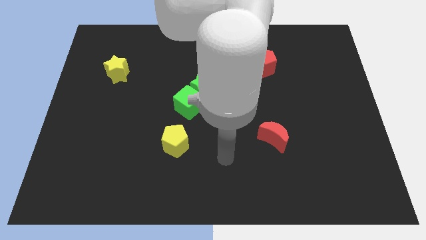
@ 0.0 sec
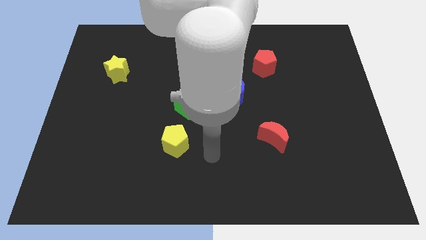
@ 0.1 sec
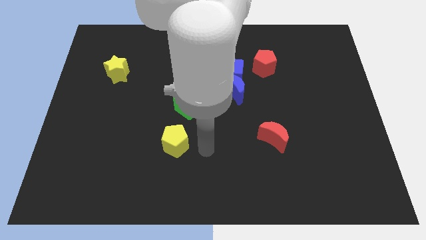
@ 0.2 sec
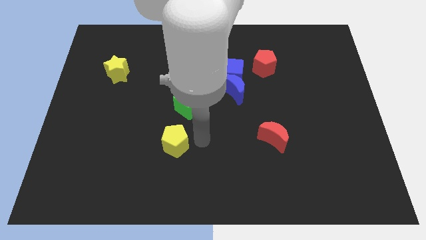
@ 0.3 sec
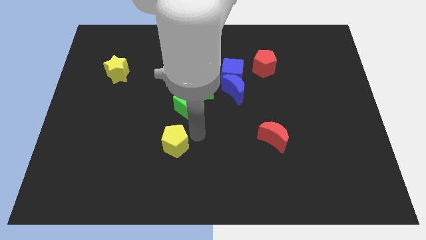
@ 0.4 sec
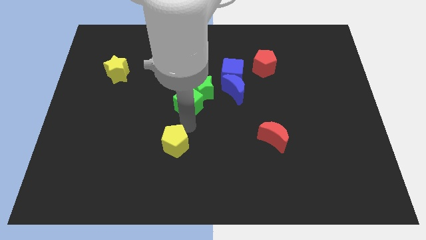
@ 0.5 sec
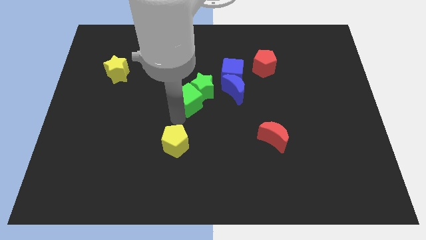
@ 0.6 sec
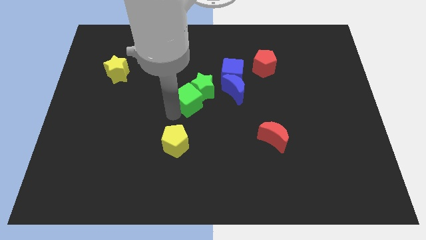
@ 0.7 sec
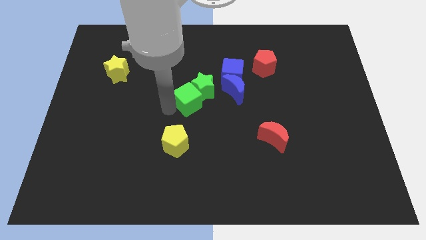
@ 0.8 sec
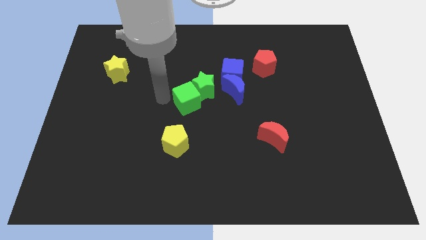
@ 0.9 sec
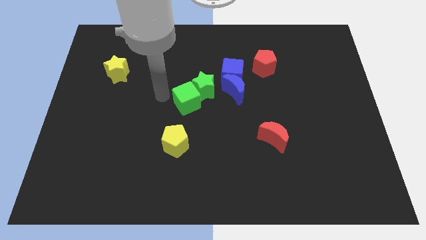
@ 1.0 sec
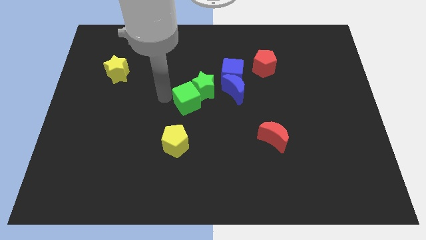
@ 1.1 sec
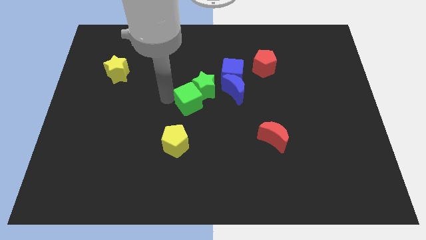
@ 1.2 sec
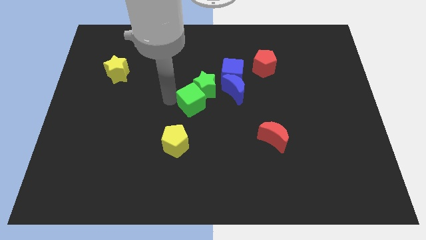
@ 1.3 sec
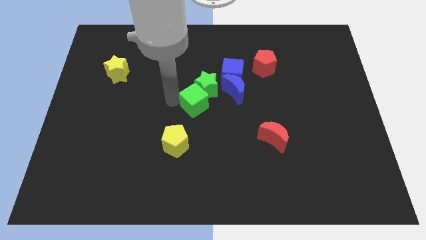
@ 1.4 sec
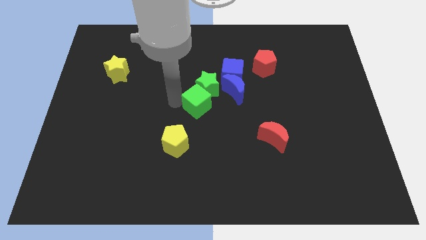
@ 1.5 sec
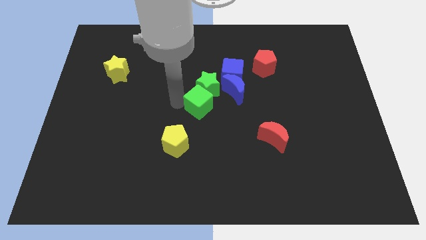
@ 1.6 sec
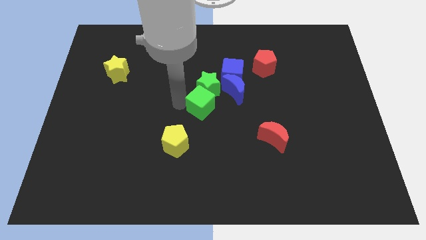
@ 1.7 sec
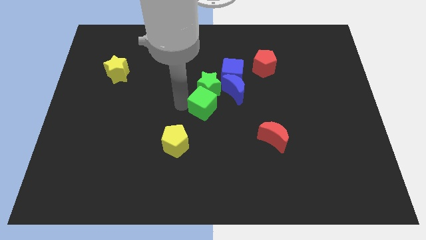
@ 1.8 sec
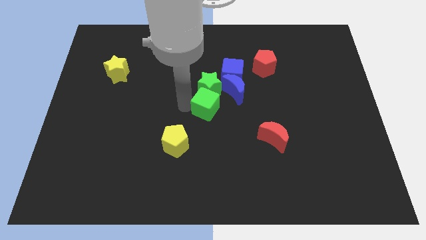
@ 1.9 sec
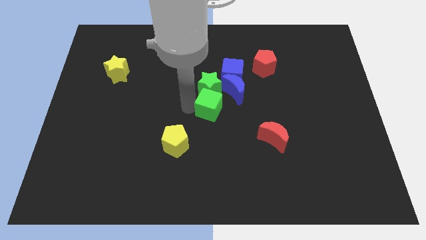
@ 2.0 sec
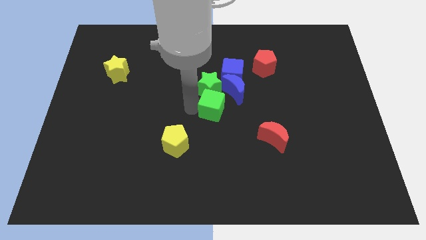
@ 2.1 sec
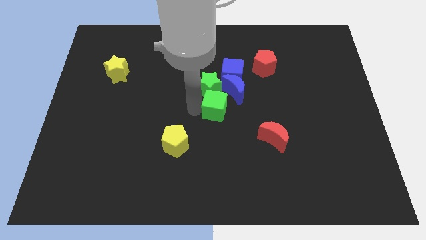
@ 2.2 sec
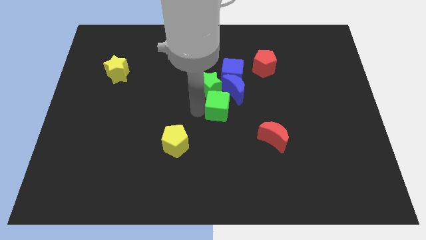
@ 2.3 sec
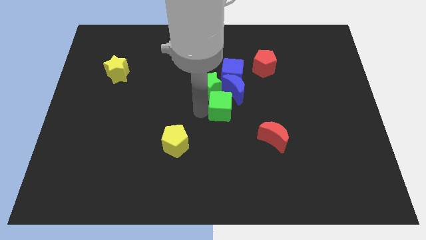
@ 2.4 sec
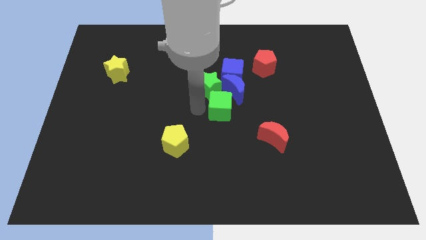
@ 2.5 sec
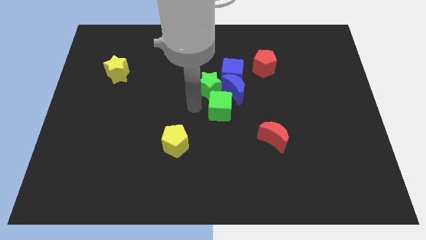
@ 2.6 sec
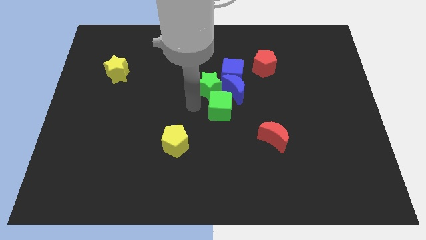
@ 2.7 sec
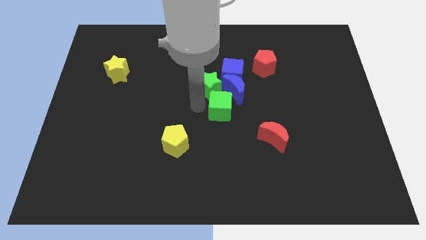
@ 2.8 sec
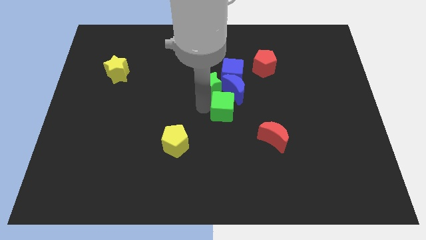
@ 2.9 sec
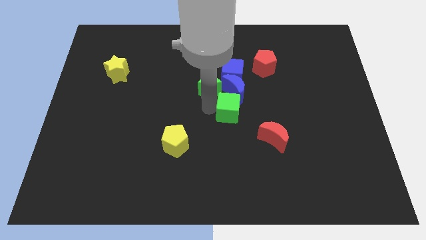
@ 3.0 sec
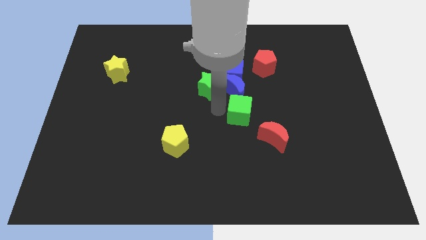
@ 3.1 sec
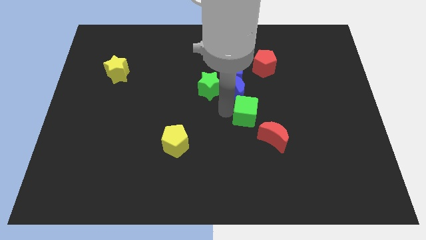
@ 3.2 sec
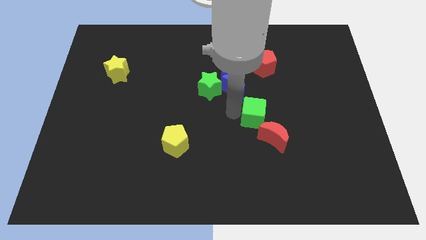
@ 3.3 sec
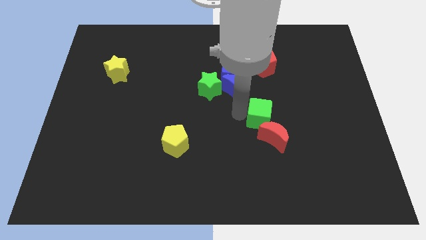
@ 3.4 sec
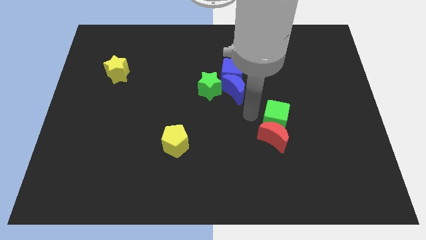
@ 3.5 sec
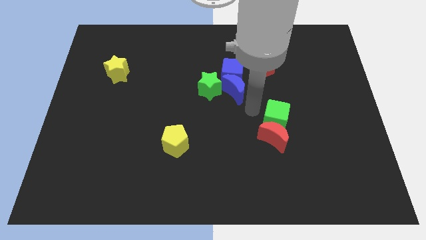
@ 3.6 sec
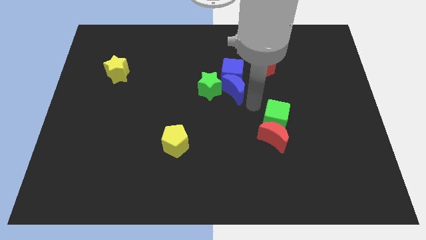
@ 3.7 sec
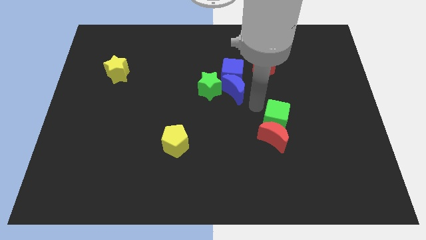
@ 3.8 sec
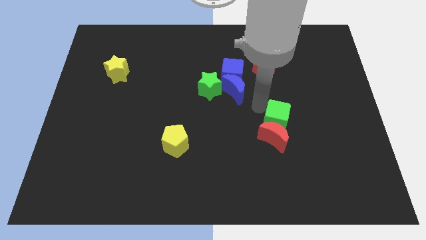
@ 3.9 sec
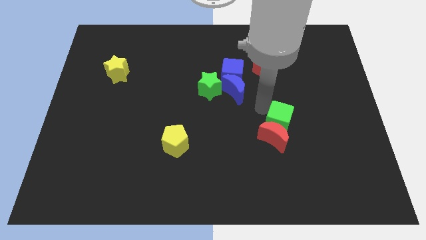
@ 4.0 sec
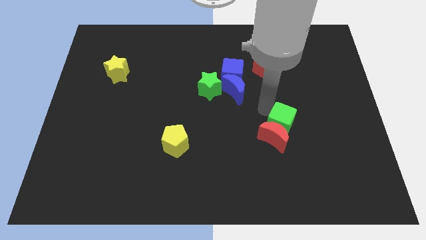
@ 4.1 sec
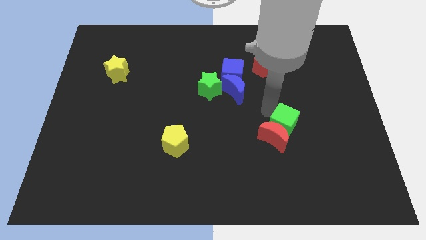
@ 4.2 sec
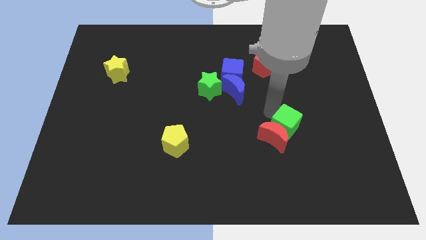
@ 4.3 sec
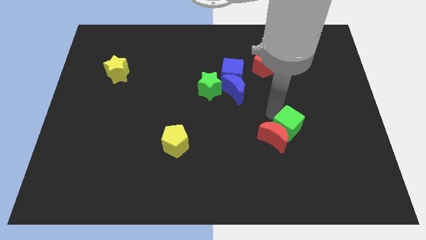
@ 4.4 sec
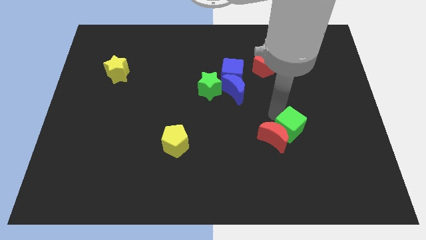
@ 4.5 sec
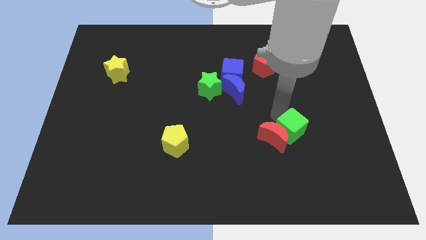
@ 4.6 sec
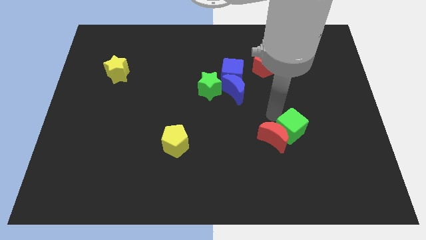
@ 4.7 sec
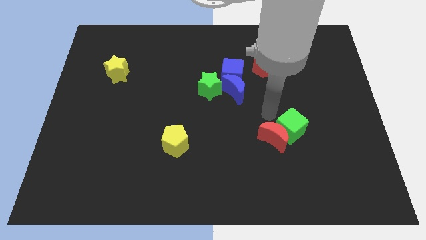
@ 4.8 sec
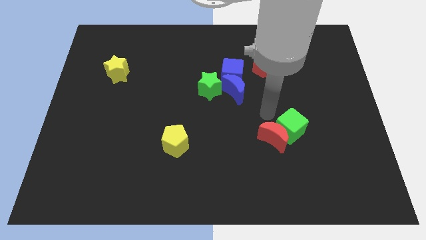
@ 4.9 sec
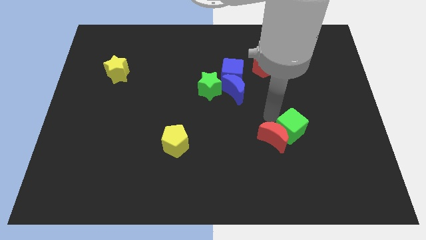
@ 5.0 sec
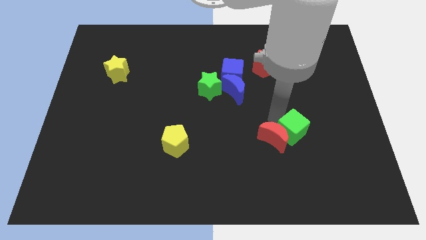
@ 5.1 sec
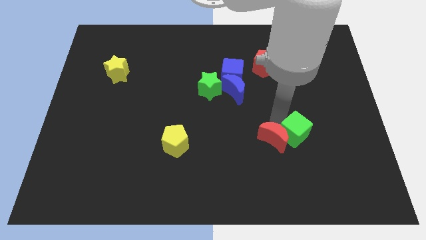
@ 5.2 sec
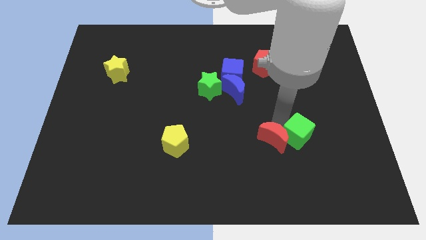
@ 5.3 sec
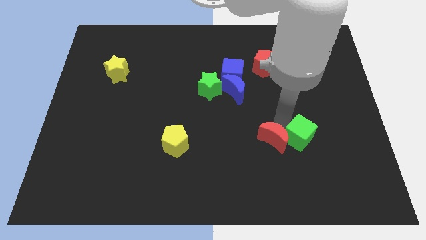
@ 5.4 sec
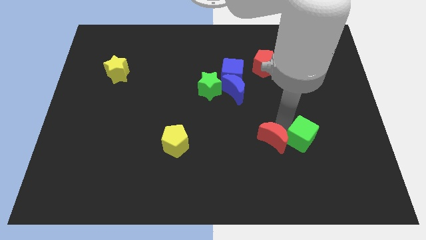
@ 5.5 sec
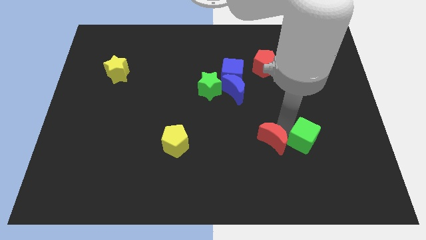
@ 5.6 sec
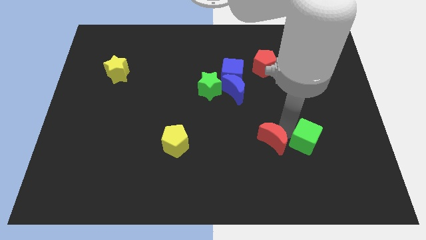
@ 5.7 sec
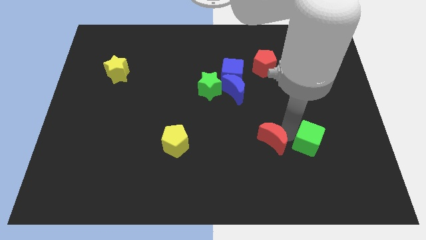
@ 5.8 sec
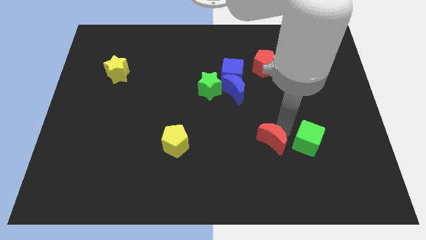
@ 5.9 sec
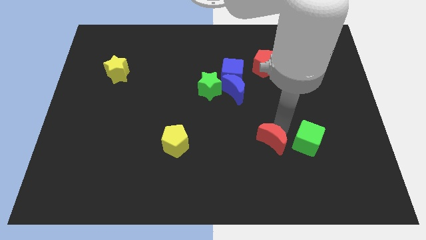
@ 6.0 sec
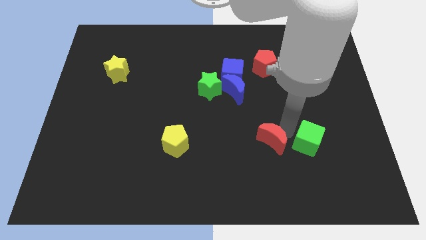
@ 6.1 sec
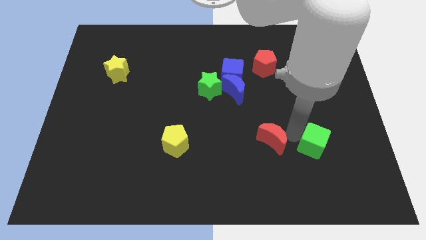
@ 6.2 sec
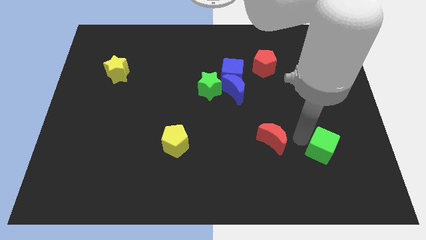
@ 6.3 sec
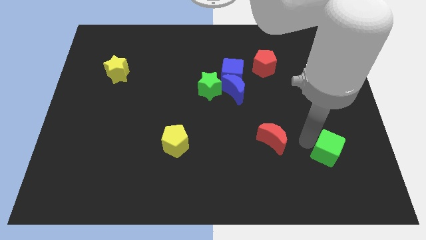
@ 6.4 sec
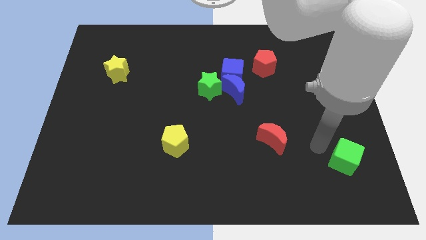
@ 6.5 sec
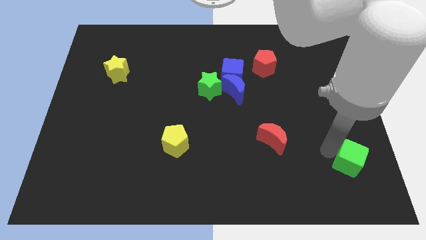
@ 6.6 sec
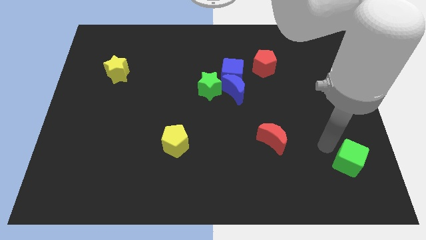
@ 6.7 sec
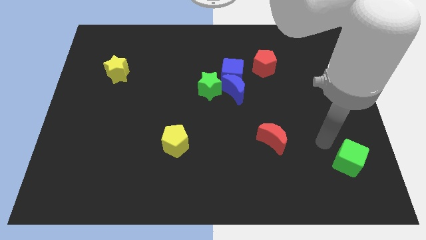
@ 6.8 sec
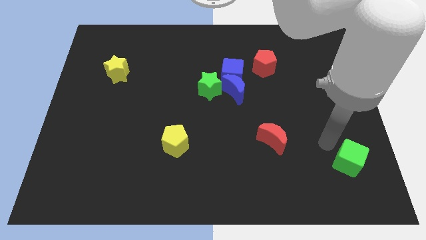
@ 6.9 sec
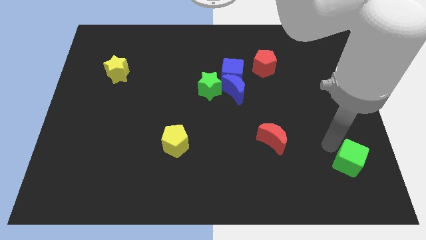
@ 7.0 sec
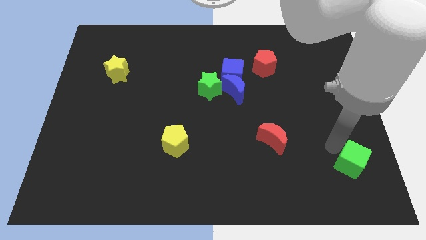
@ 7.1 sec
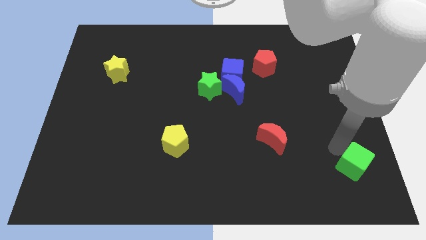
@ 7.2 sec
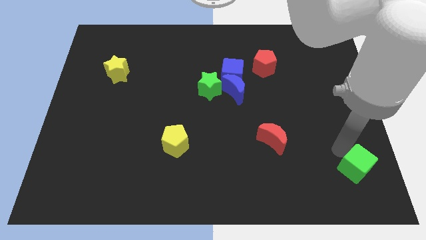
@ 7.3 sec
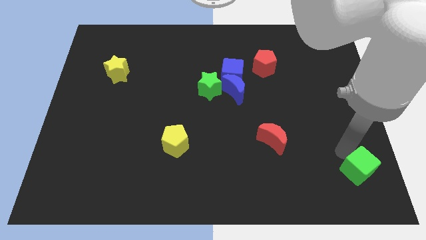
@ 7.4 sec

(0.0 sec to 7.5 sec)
push the green cube to the bottom right corner
